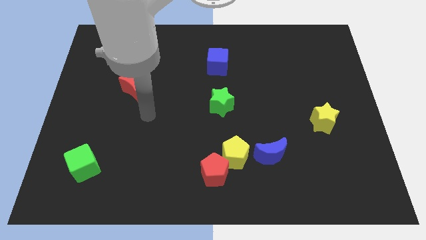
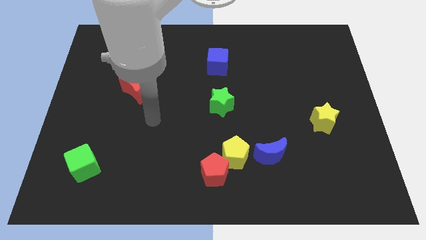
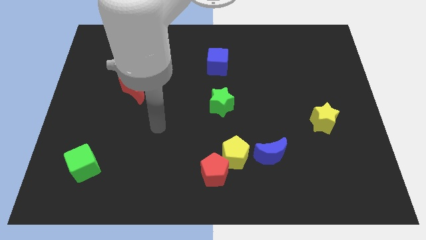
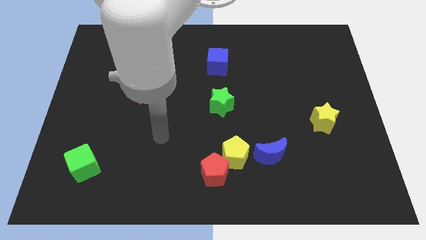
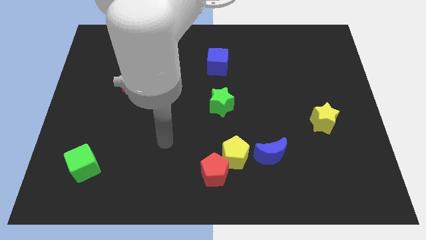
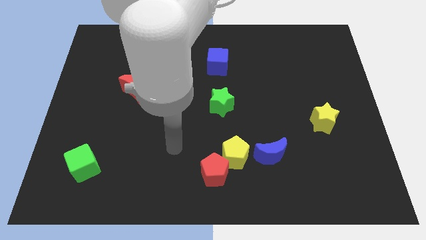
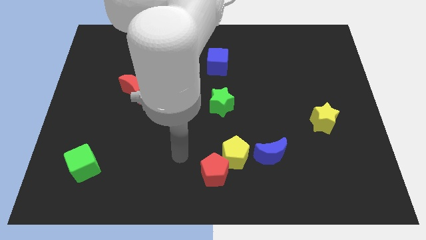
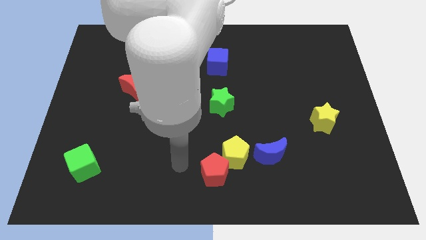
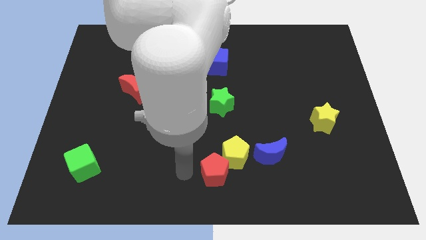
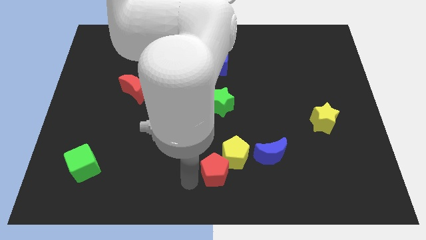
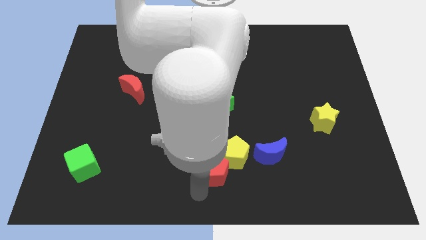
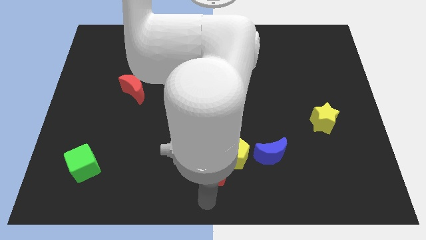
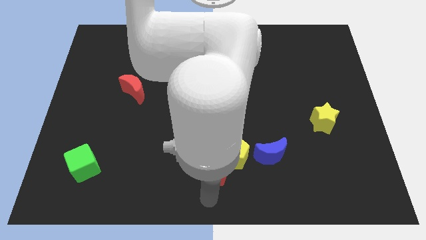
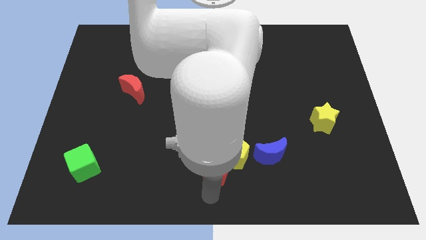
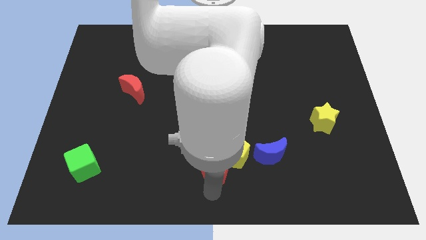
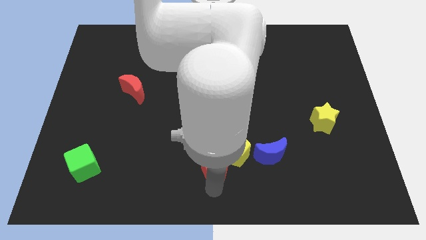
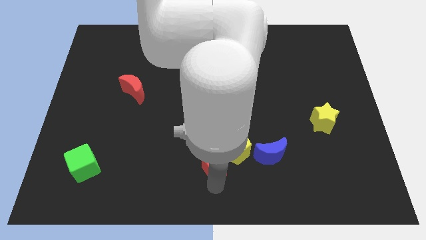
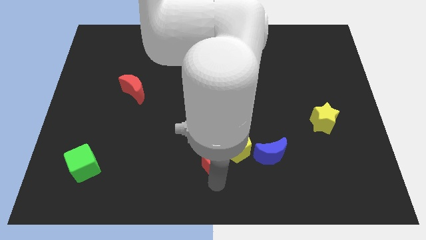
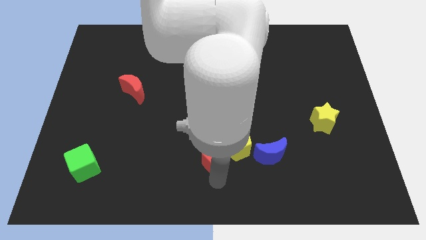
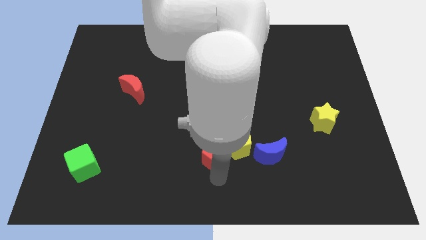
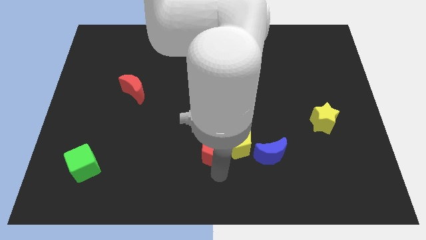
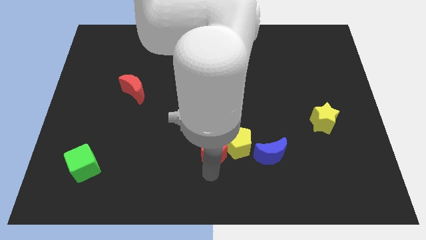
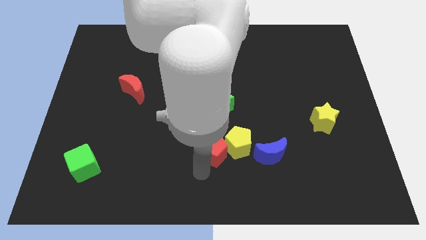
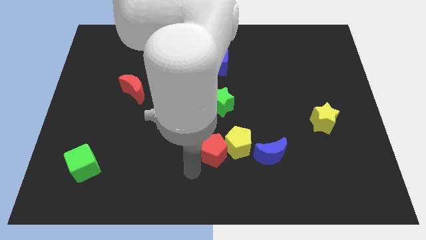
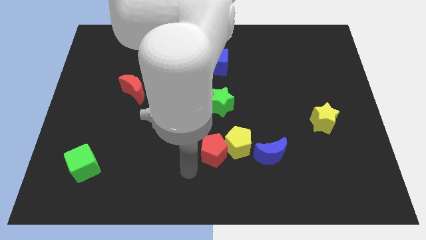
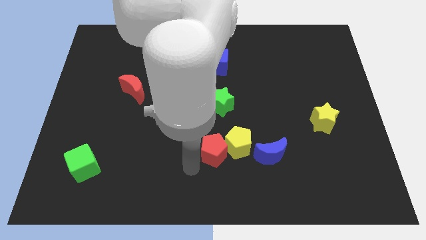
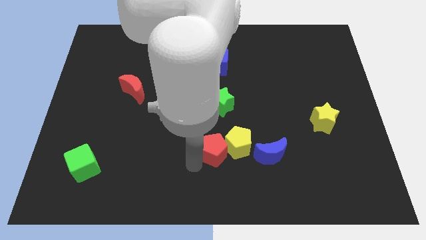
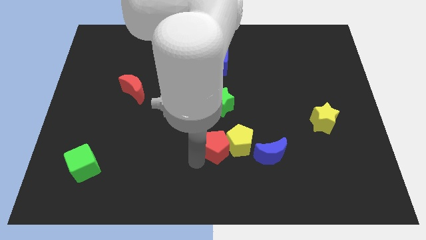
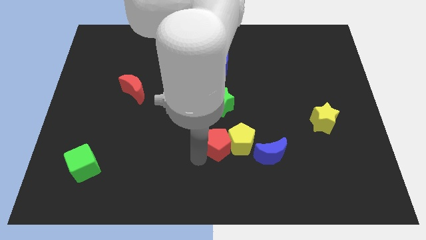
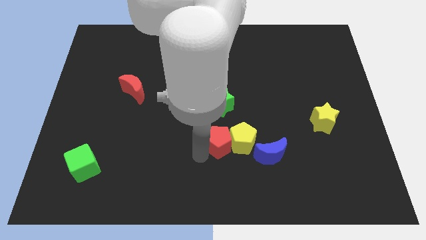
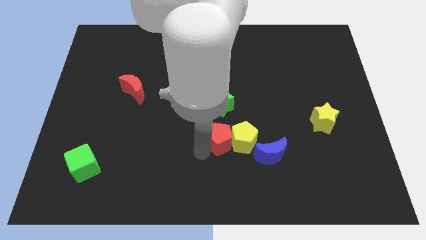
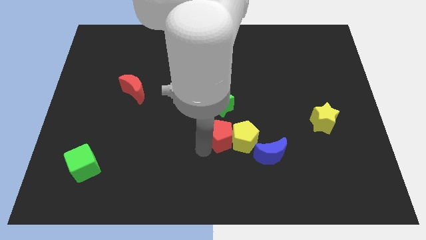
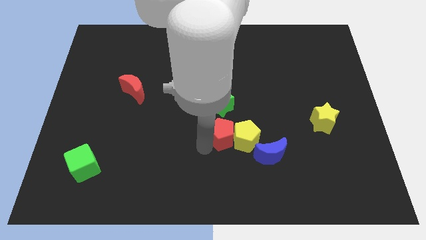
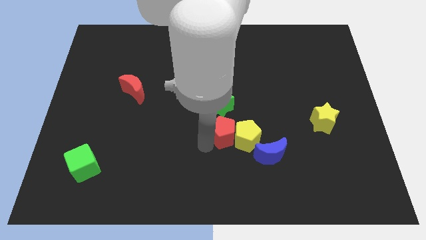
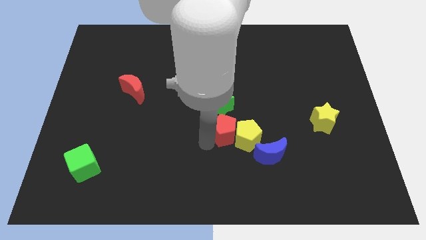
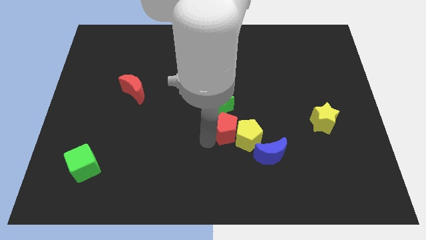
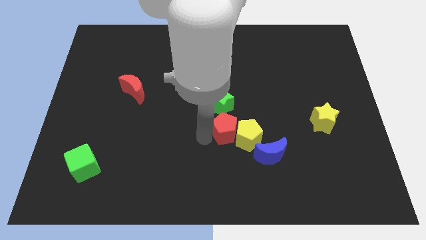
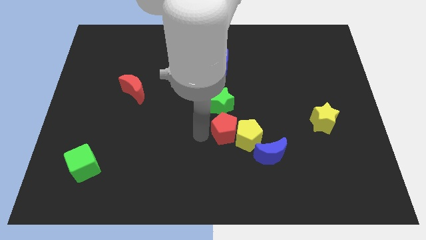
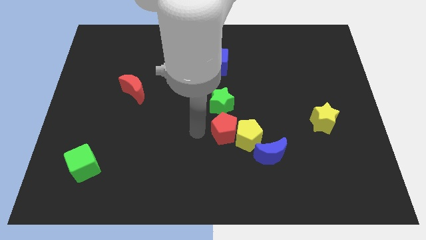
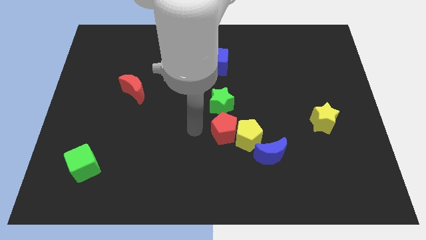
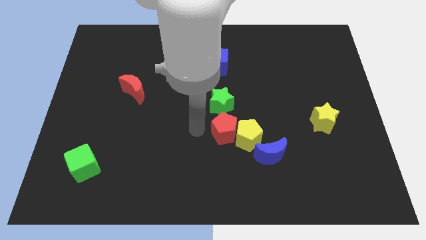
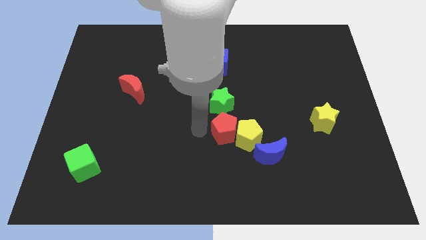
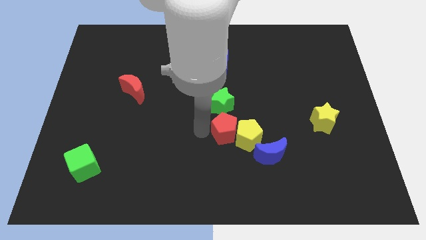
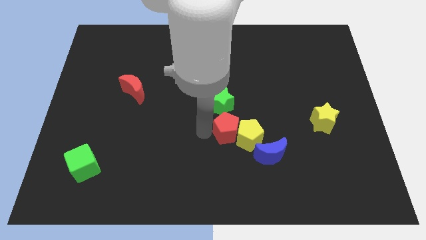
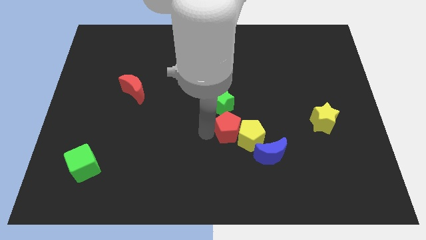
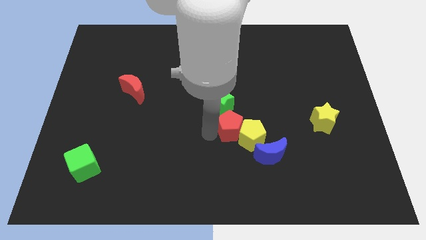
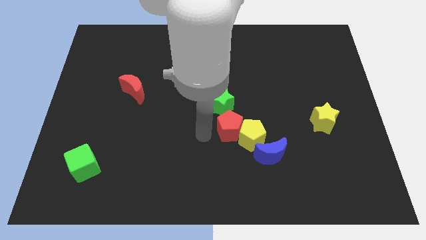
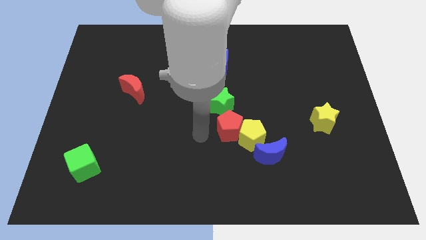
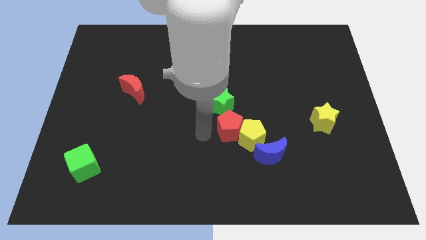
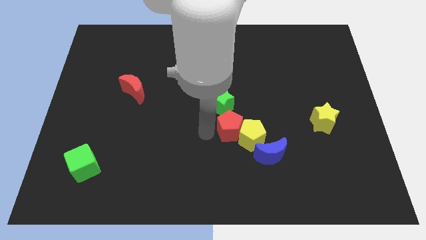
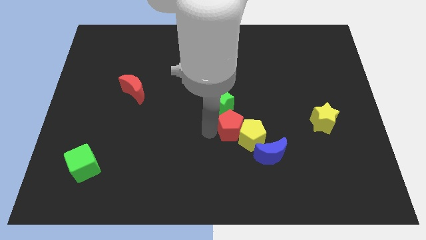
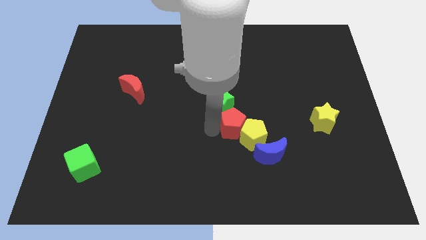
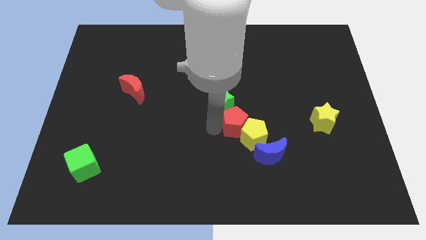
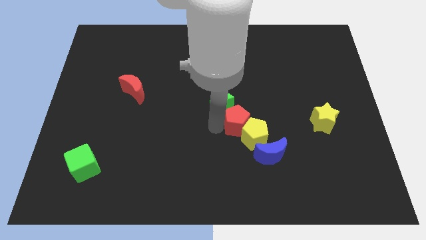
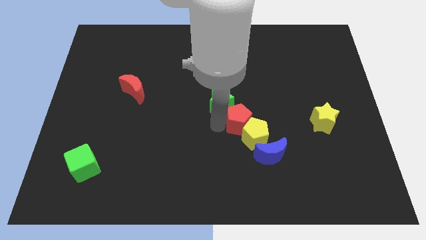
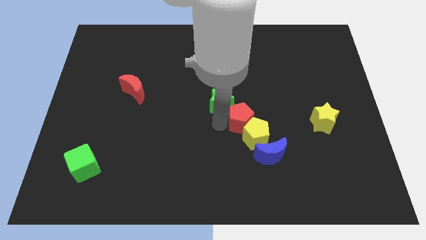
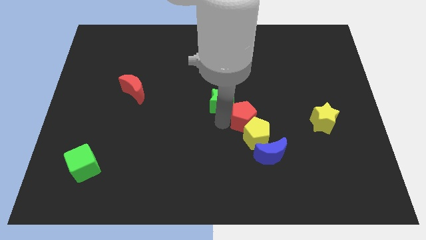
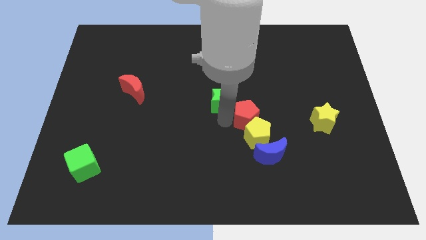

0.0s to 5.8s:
slide the red pentagon above the blue moon

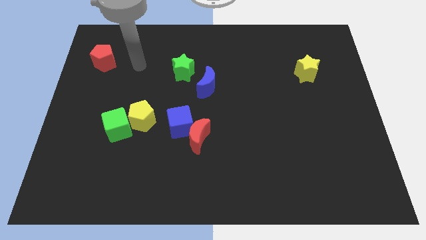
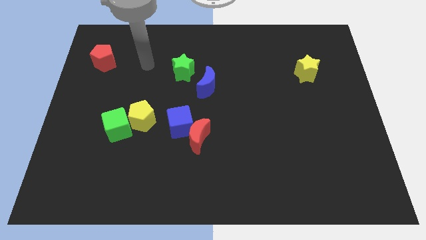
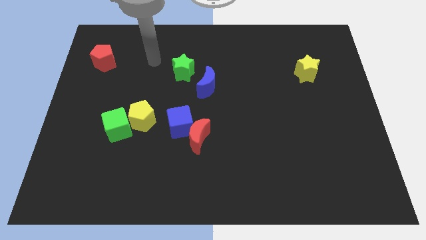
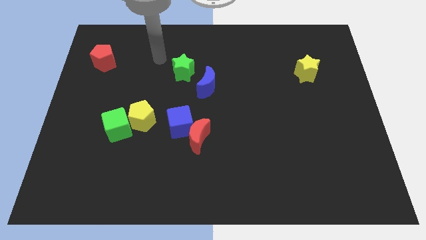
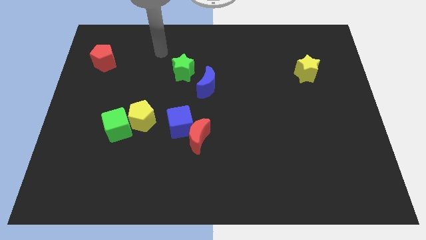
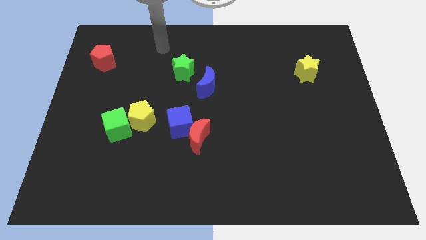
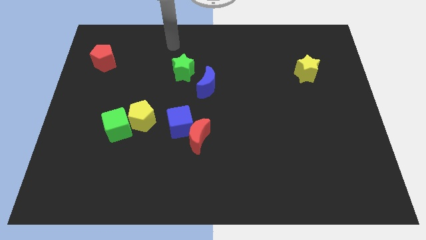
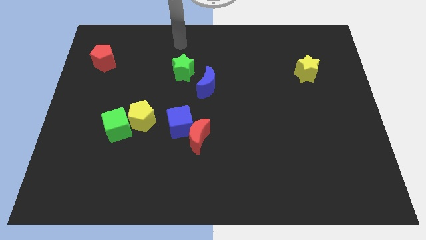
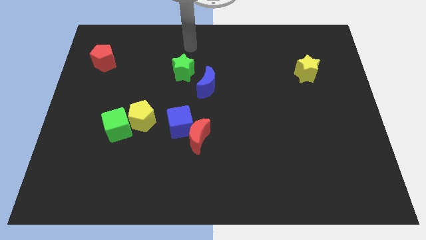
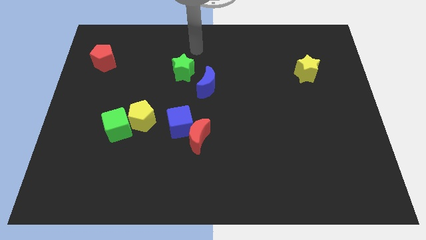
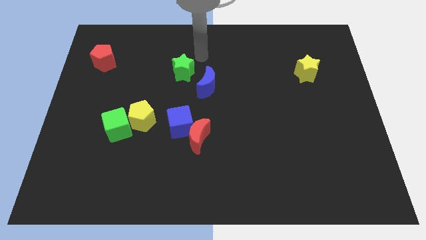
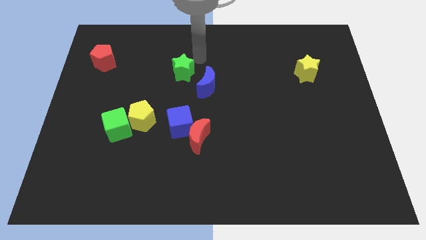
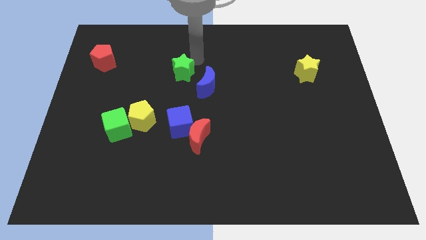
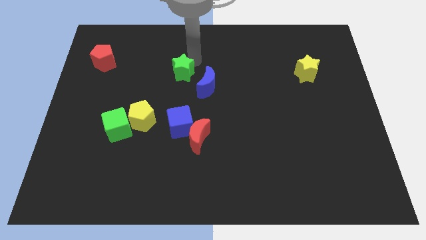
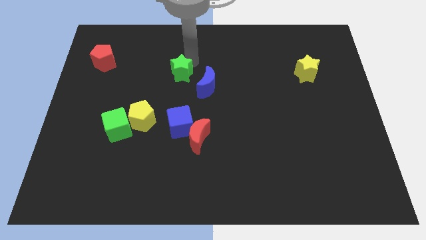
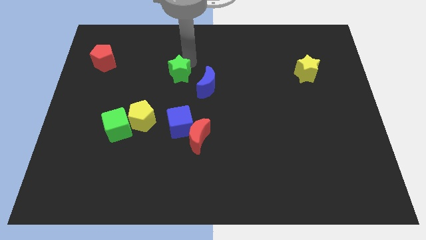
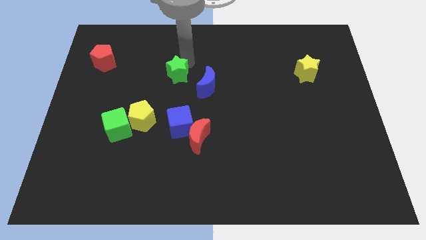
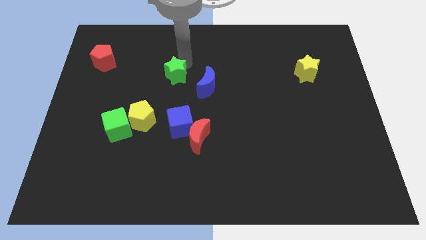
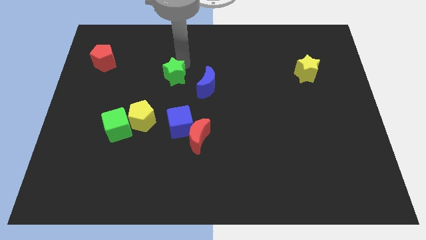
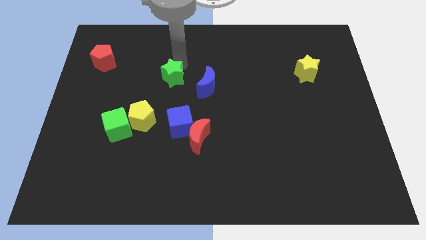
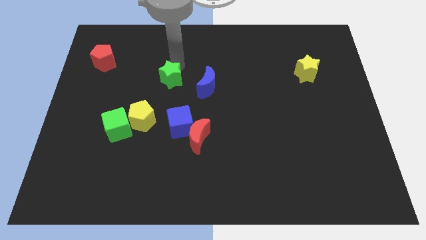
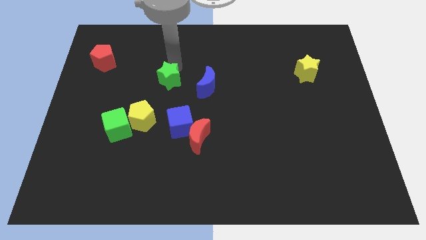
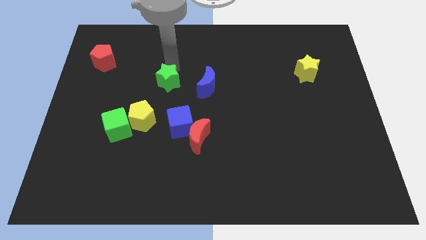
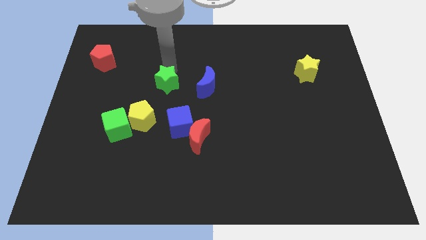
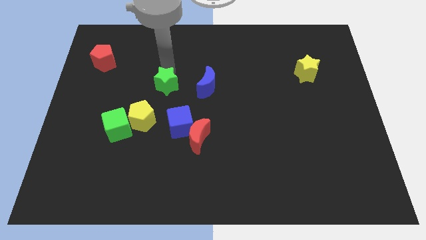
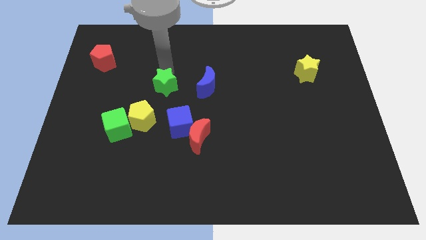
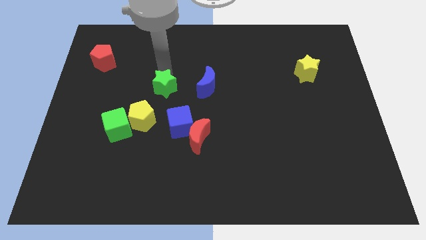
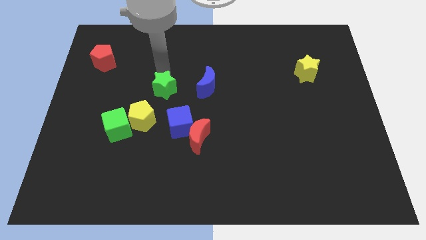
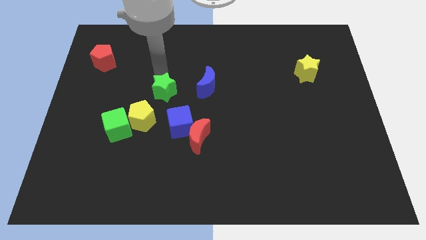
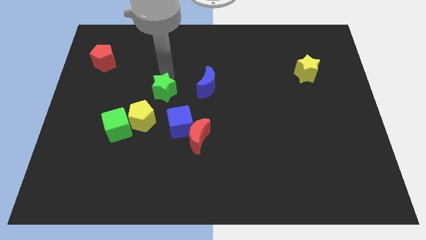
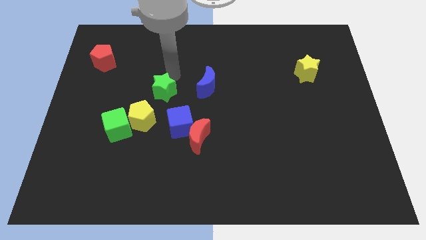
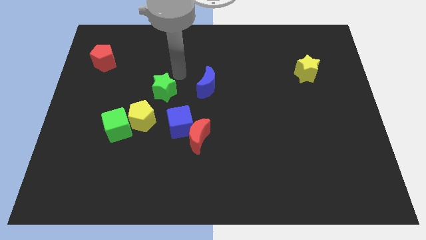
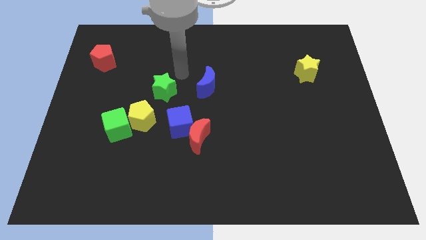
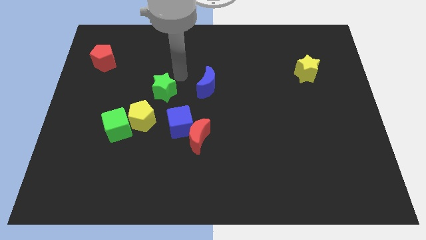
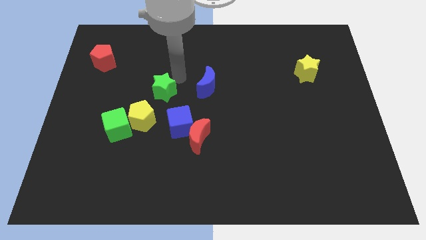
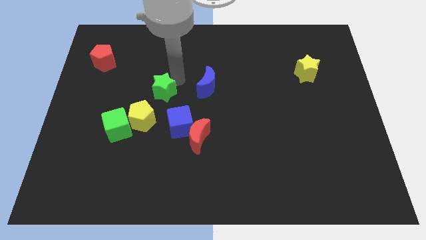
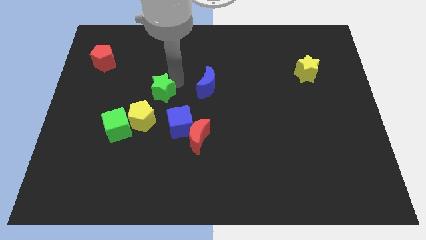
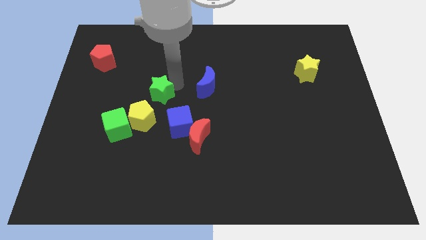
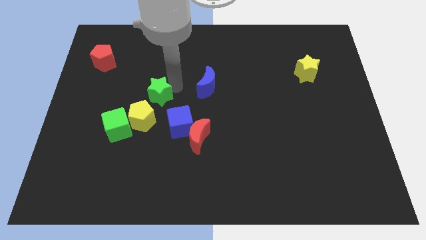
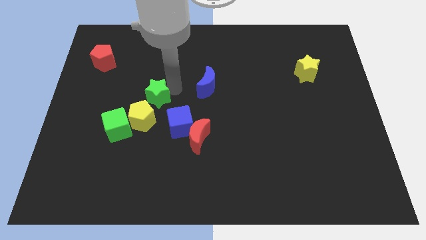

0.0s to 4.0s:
push the green star diagonally up and to the right of the green cube
